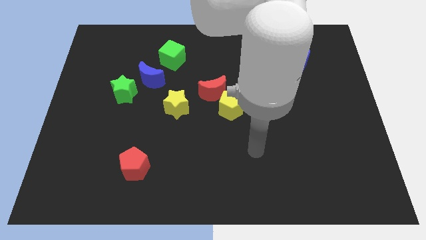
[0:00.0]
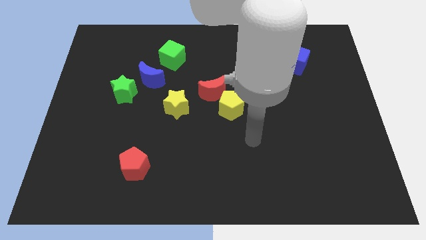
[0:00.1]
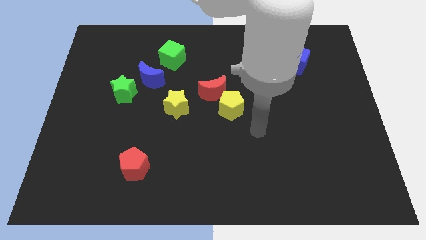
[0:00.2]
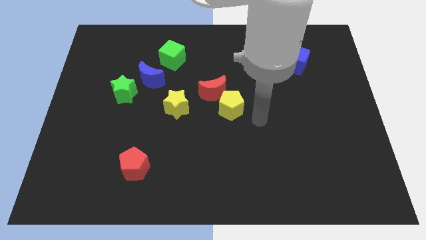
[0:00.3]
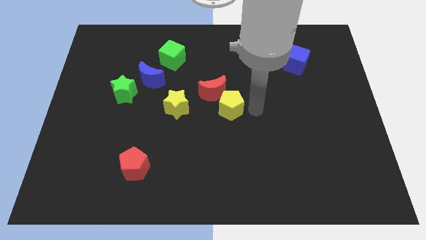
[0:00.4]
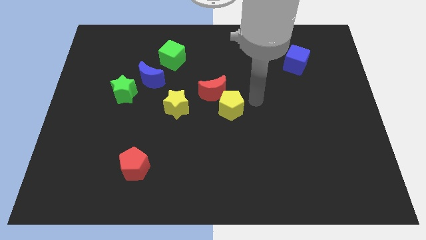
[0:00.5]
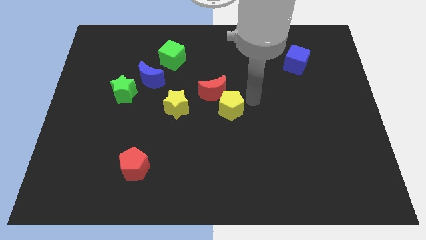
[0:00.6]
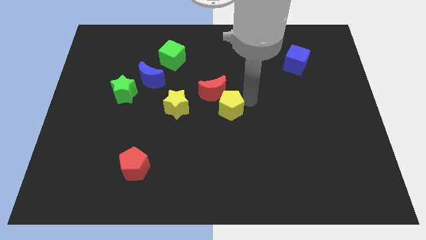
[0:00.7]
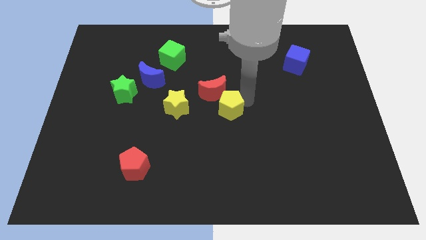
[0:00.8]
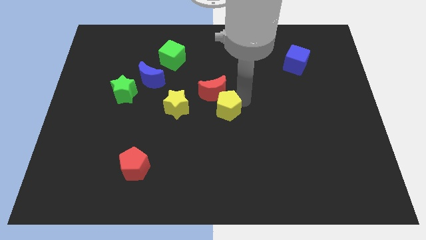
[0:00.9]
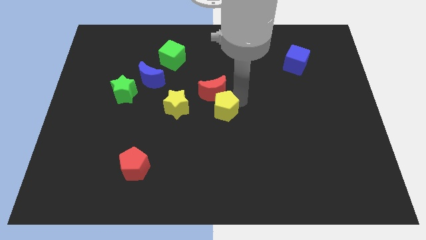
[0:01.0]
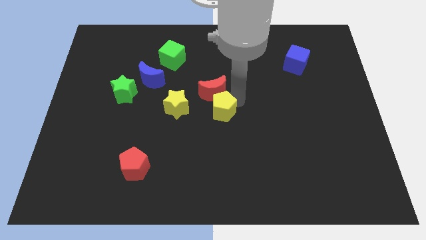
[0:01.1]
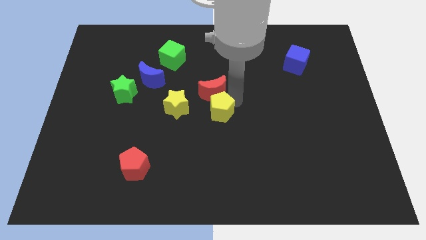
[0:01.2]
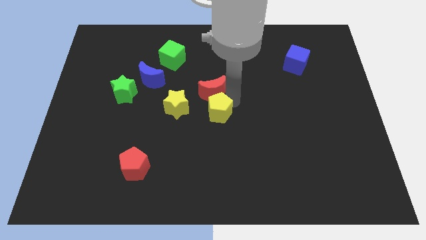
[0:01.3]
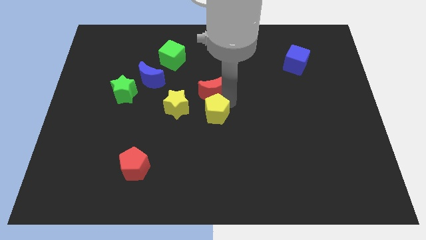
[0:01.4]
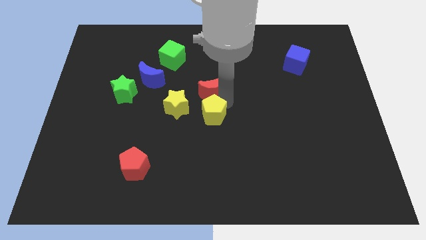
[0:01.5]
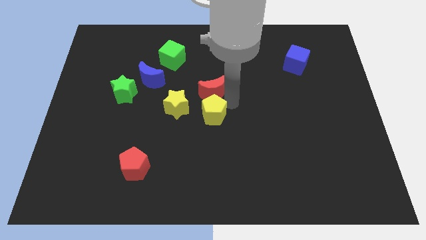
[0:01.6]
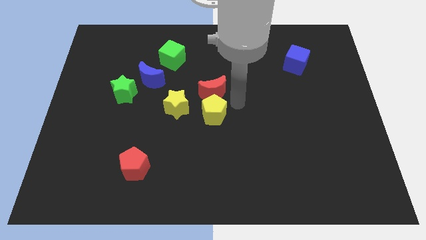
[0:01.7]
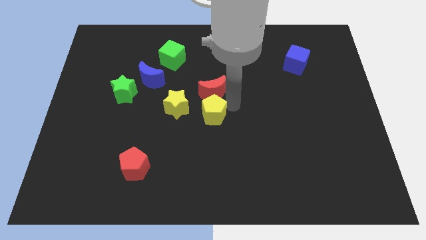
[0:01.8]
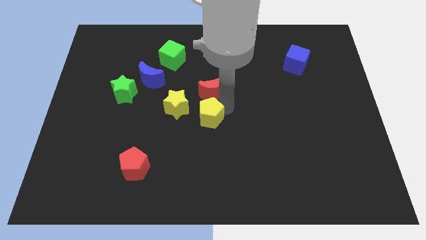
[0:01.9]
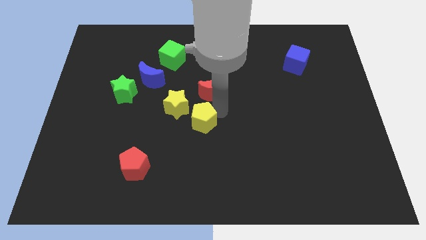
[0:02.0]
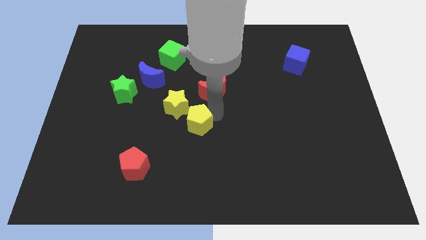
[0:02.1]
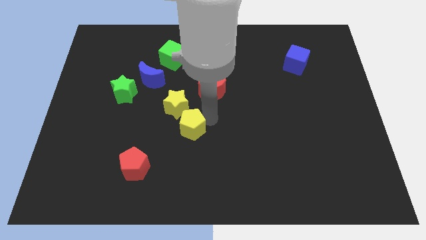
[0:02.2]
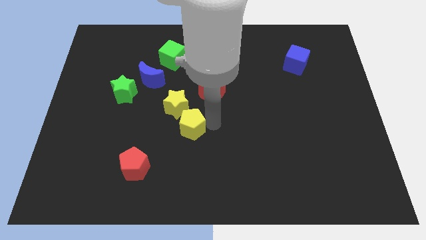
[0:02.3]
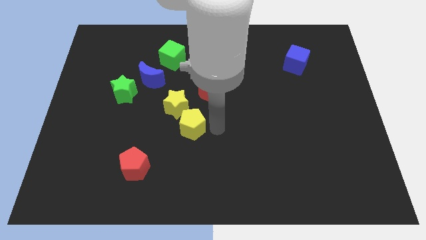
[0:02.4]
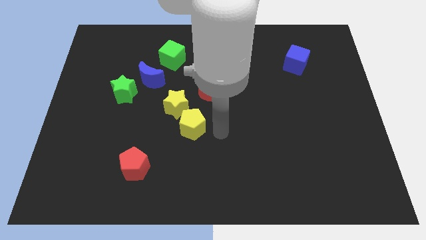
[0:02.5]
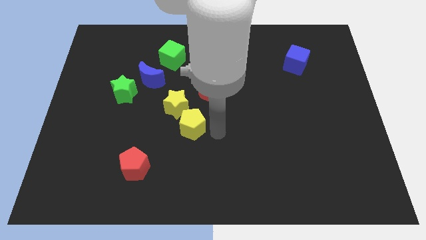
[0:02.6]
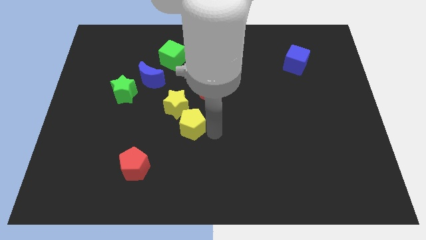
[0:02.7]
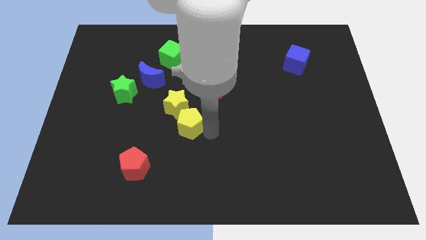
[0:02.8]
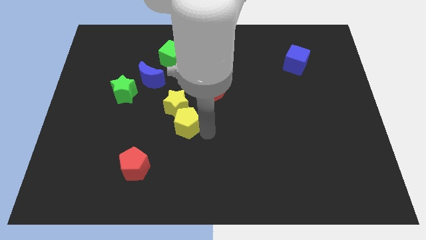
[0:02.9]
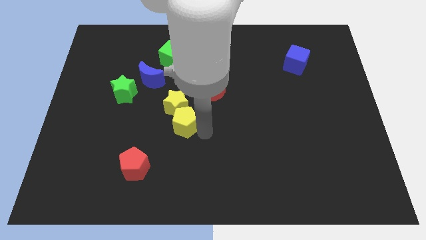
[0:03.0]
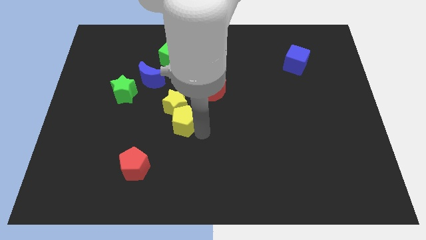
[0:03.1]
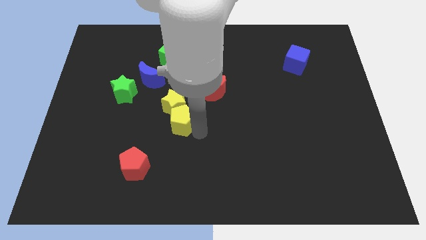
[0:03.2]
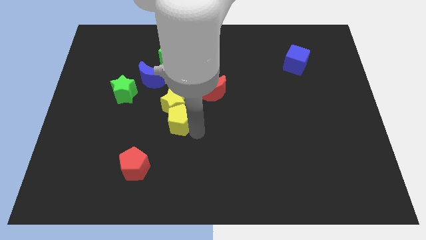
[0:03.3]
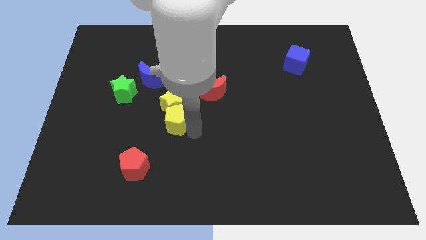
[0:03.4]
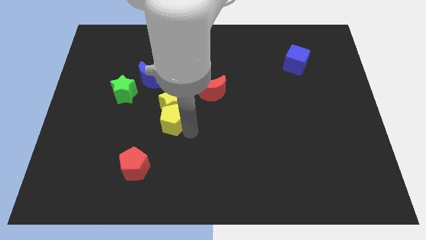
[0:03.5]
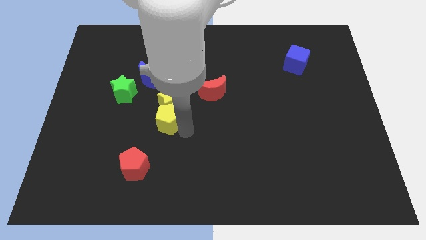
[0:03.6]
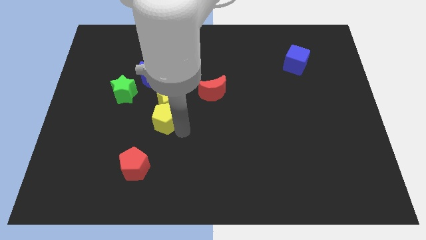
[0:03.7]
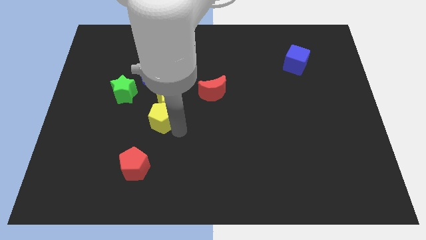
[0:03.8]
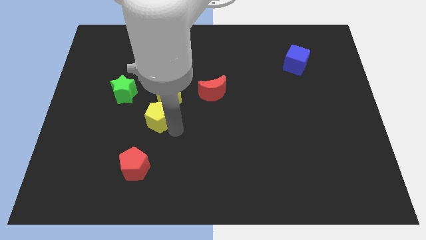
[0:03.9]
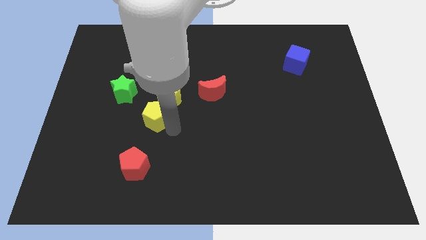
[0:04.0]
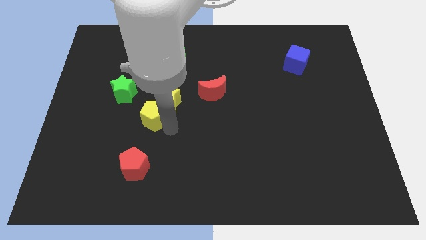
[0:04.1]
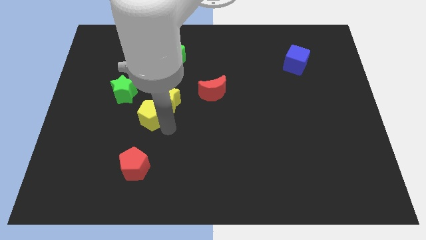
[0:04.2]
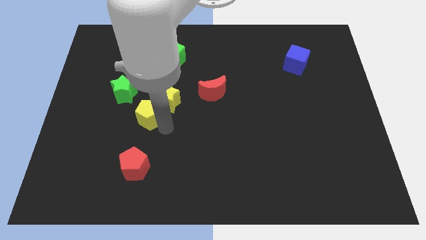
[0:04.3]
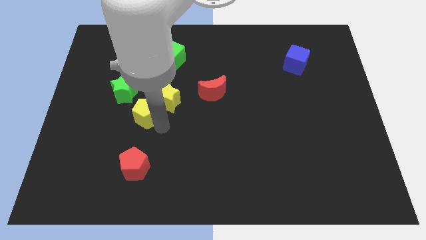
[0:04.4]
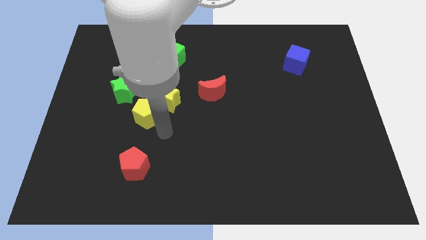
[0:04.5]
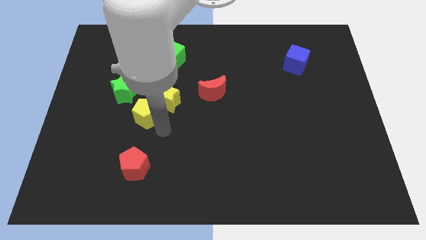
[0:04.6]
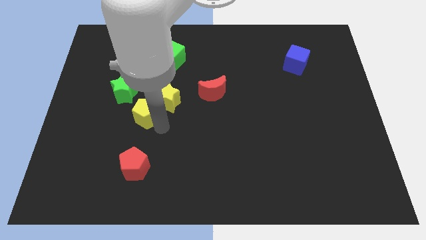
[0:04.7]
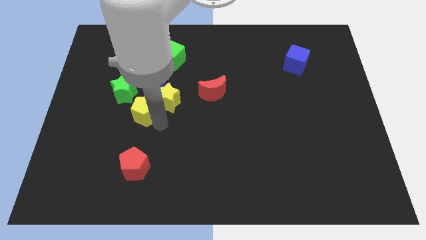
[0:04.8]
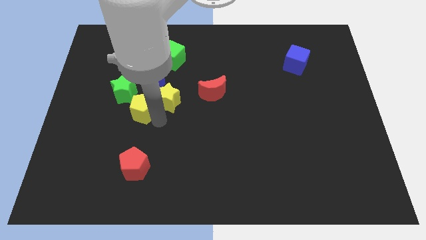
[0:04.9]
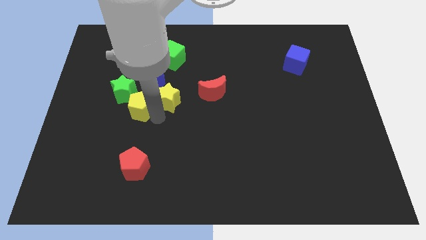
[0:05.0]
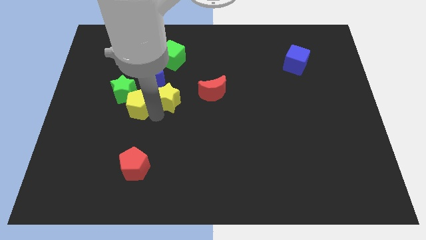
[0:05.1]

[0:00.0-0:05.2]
move the yellow pentagon towards the green star

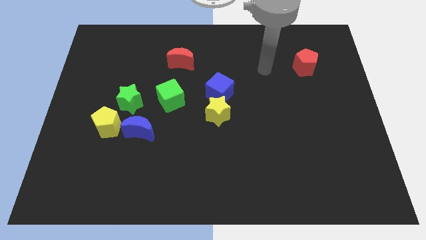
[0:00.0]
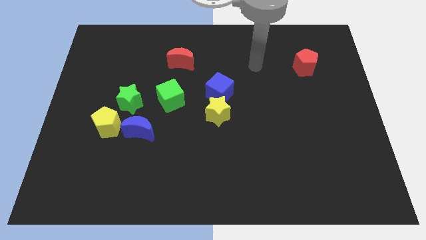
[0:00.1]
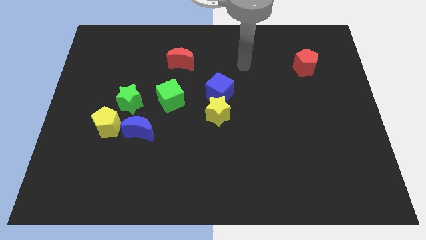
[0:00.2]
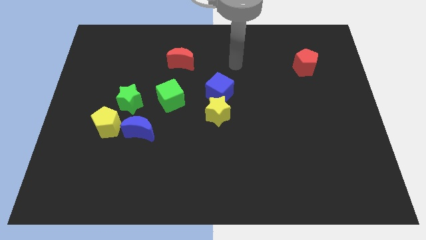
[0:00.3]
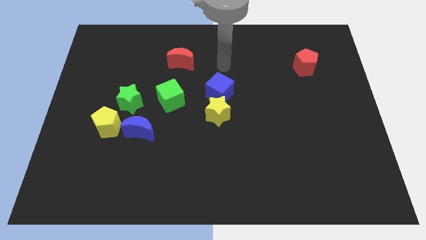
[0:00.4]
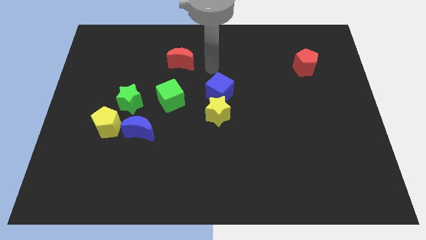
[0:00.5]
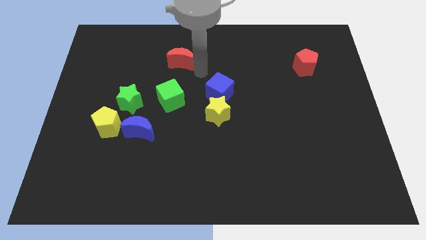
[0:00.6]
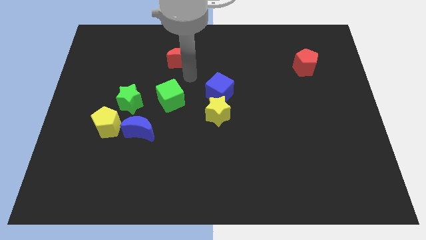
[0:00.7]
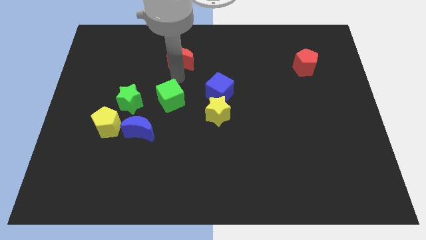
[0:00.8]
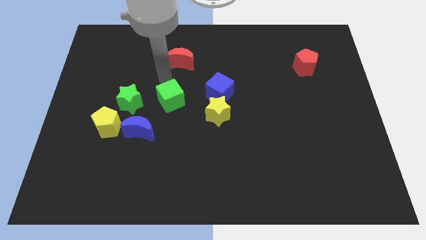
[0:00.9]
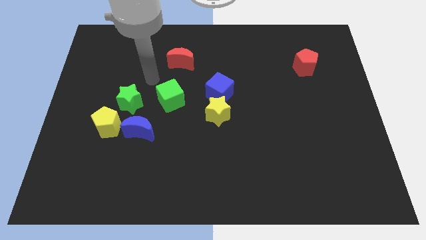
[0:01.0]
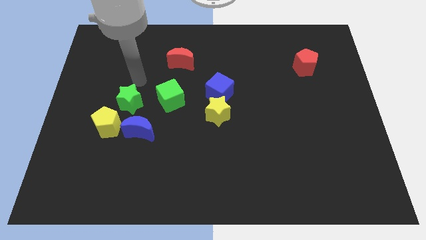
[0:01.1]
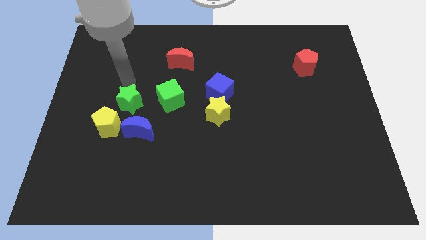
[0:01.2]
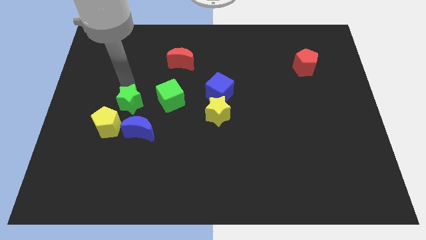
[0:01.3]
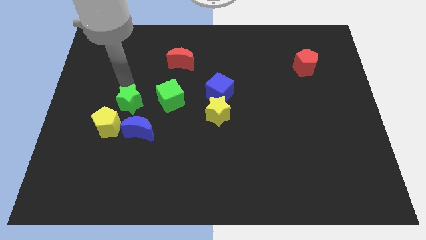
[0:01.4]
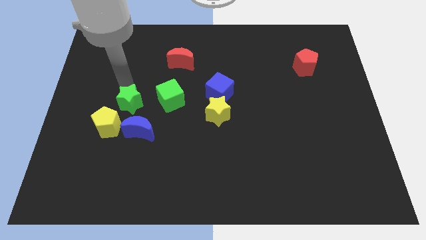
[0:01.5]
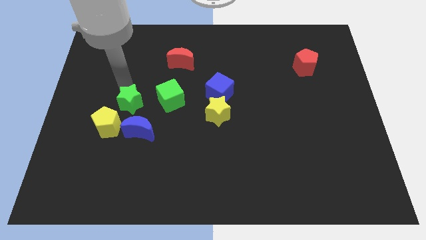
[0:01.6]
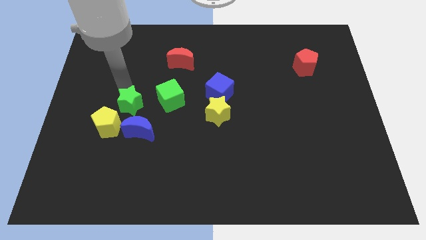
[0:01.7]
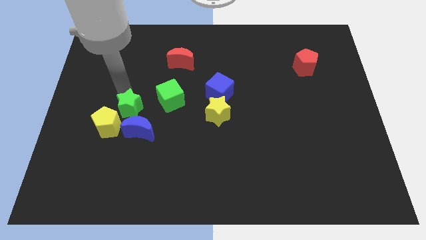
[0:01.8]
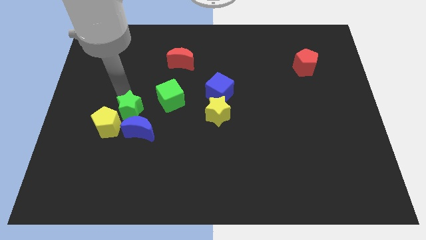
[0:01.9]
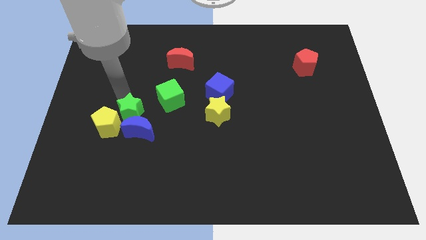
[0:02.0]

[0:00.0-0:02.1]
put the green star close to the blue moon
